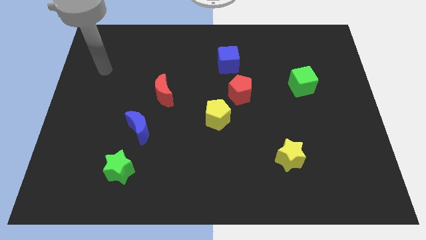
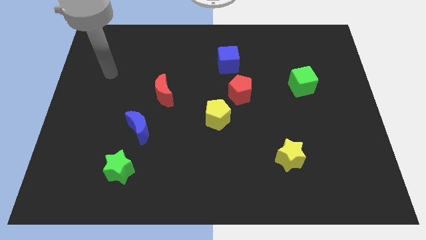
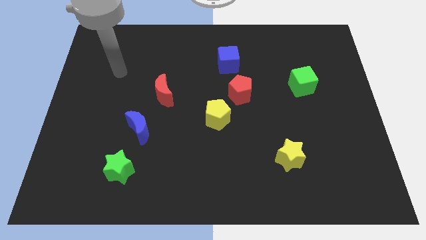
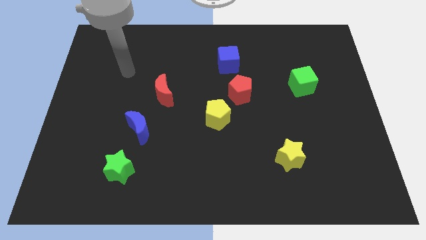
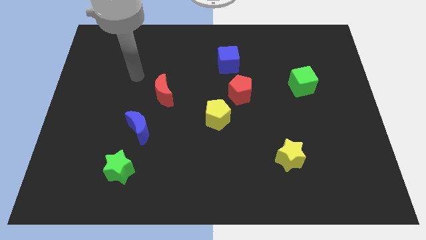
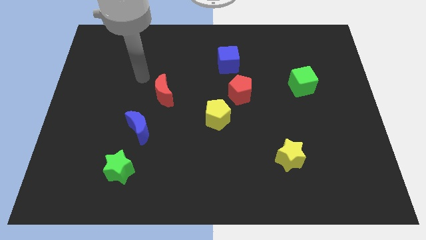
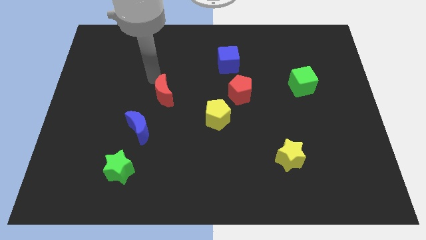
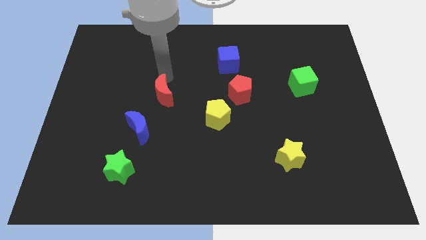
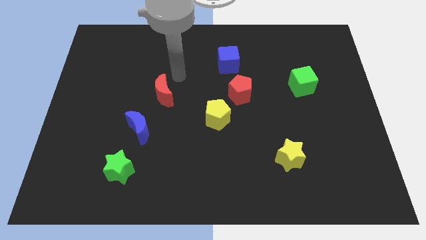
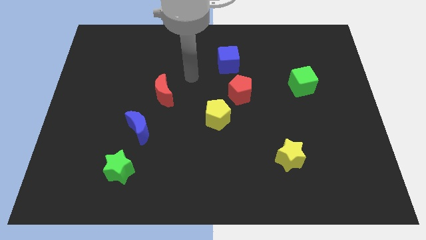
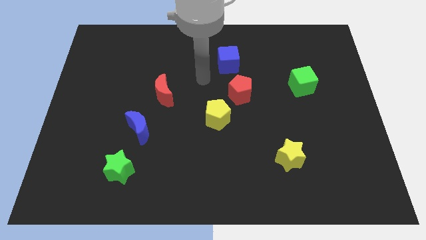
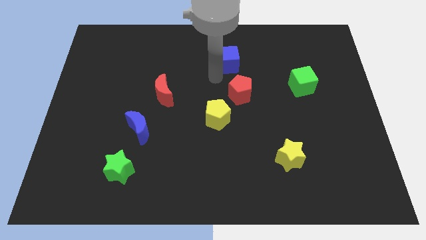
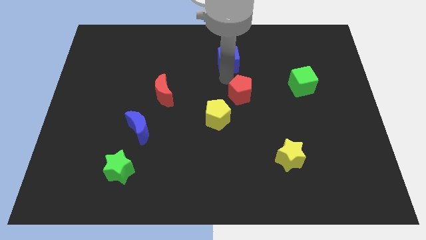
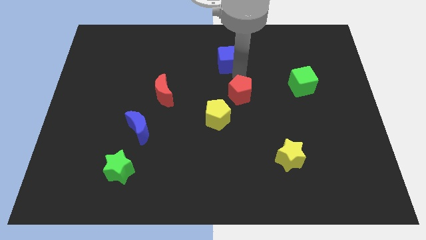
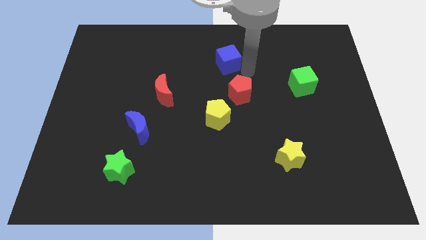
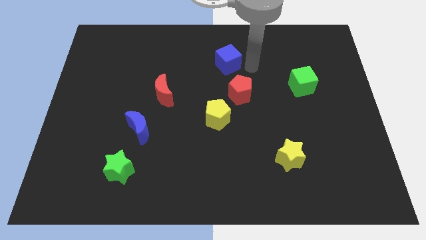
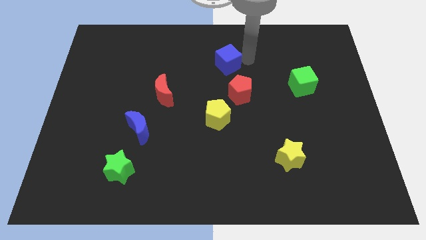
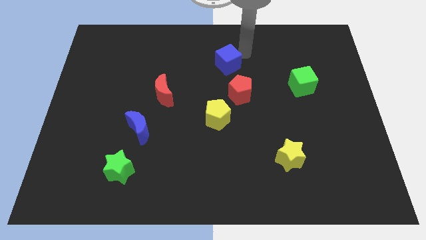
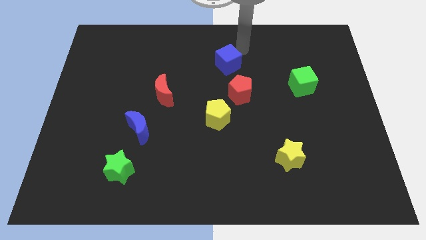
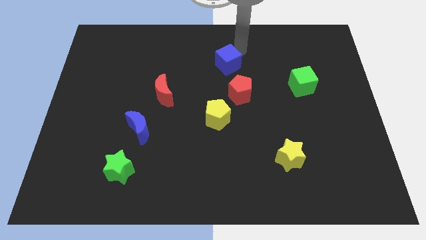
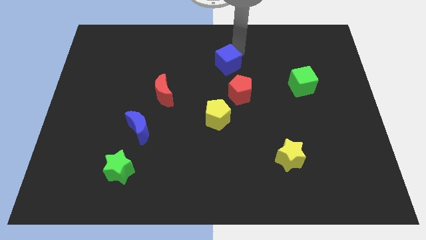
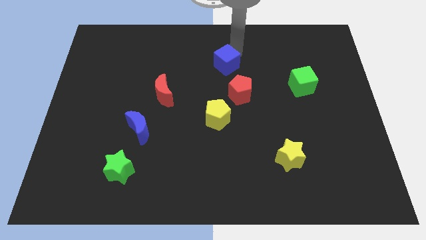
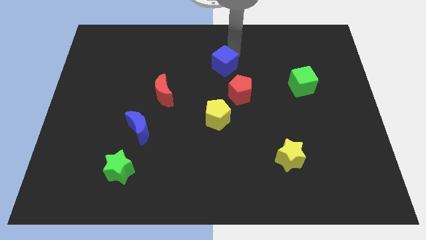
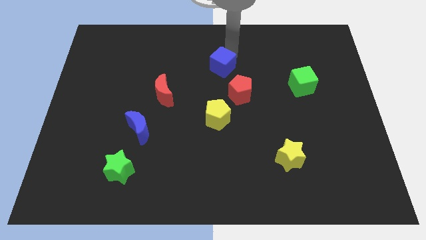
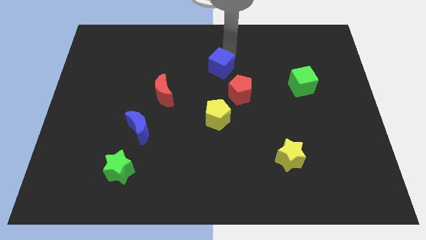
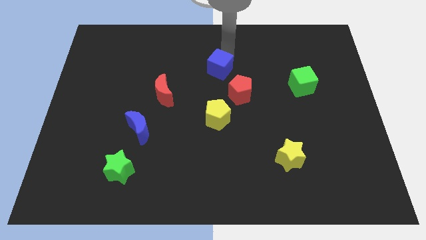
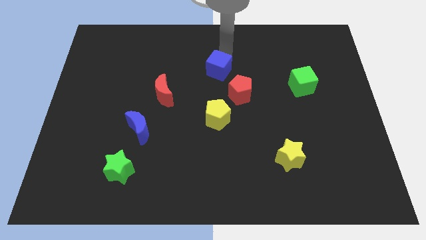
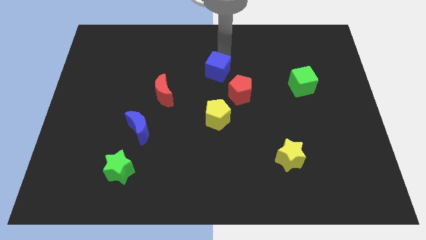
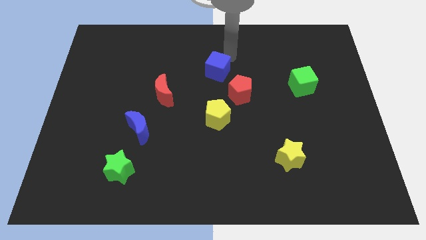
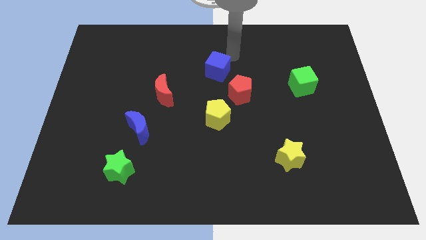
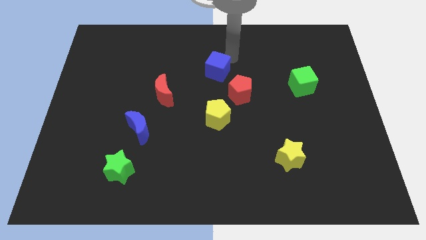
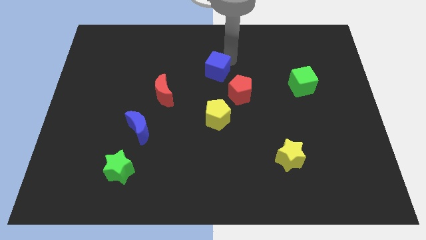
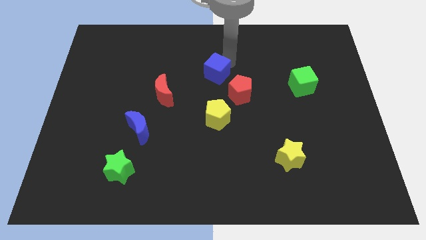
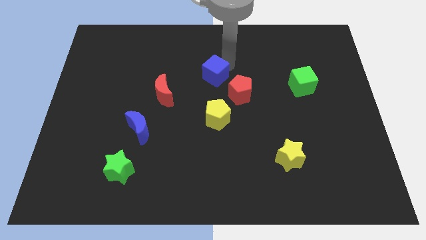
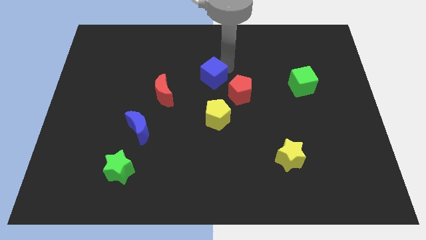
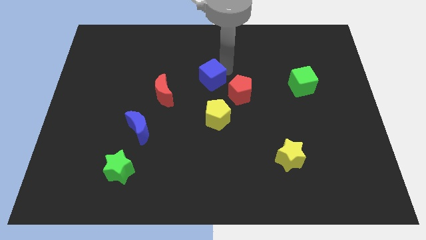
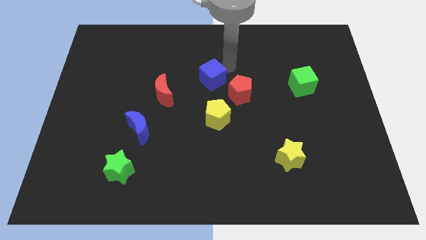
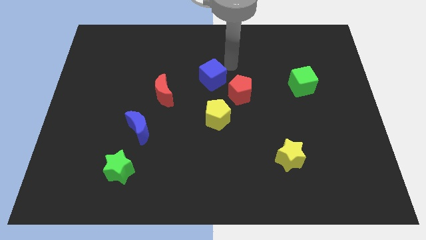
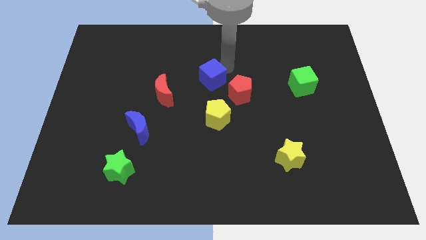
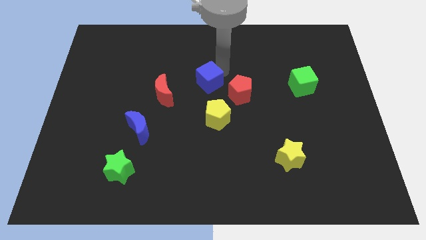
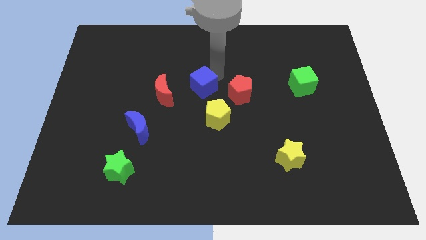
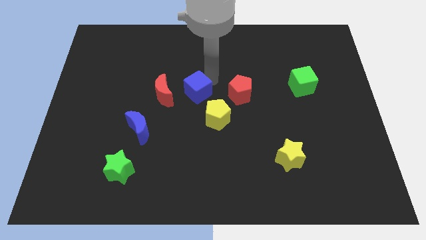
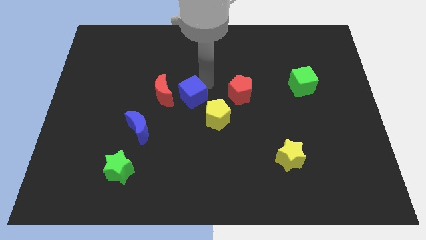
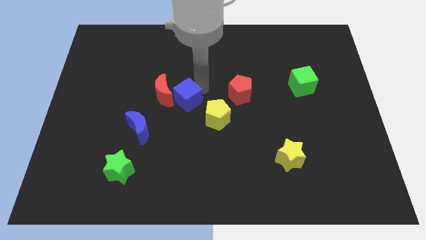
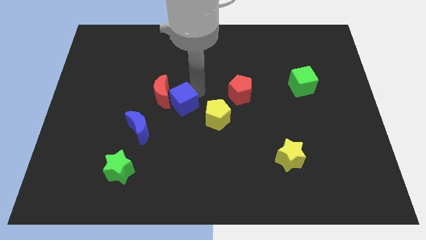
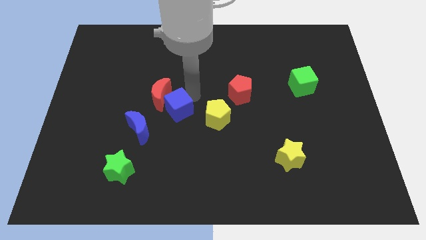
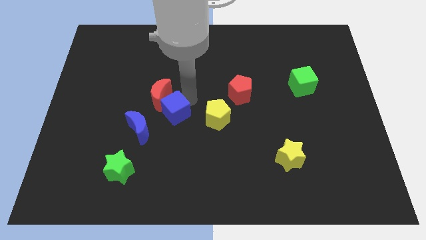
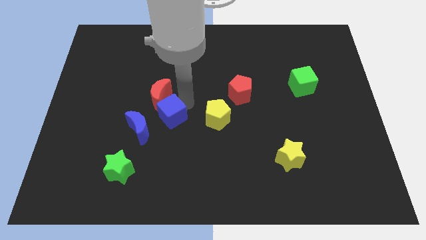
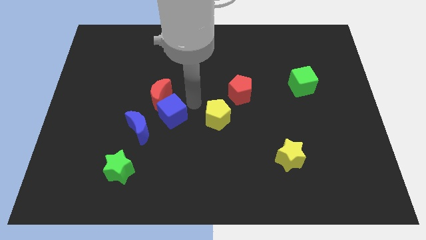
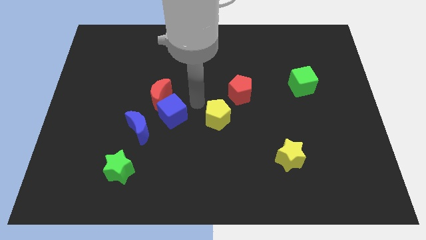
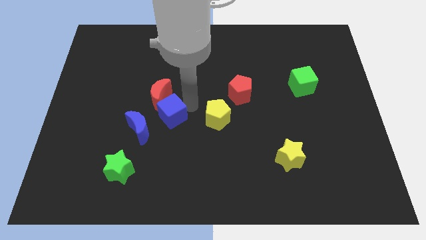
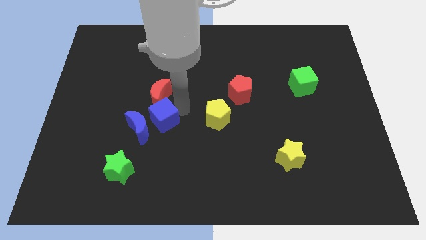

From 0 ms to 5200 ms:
slide the blue cube next to the blue moon
